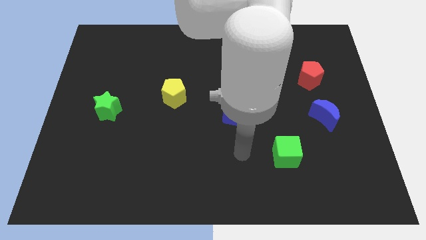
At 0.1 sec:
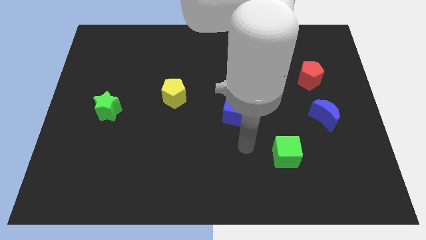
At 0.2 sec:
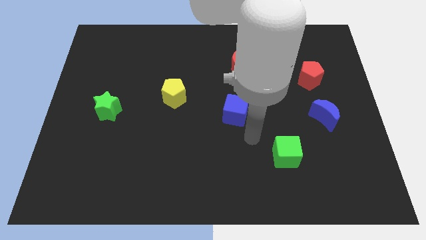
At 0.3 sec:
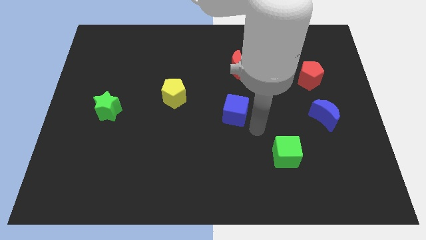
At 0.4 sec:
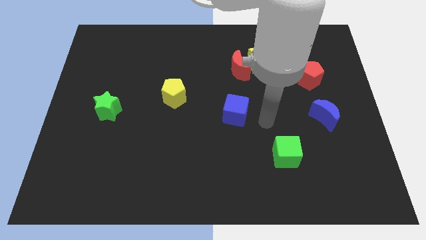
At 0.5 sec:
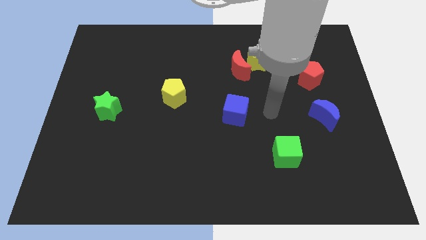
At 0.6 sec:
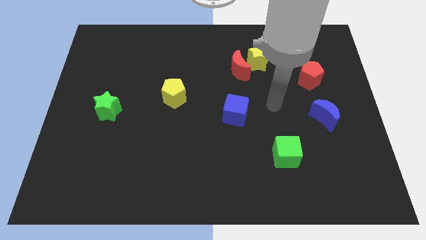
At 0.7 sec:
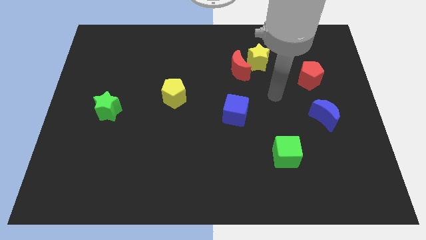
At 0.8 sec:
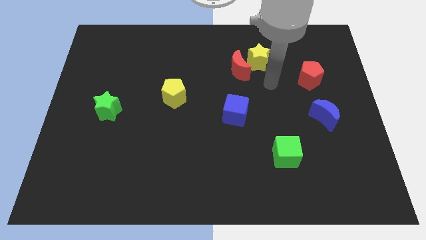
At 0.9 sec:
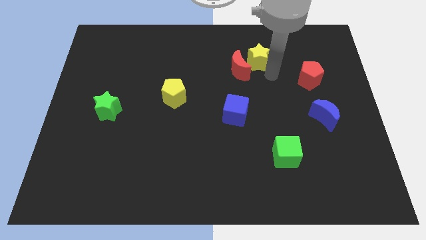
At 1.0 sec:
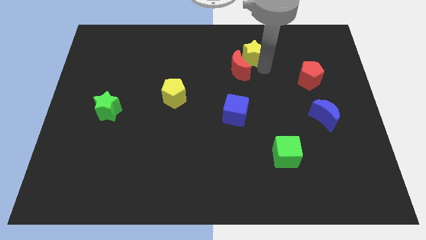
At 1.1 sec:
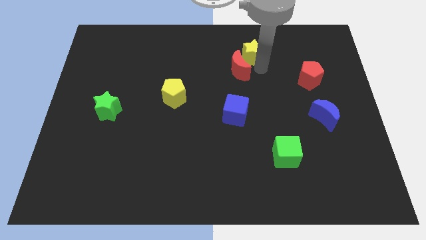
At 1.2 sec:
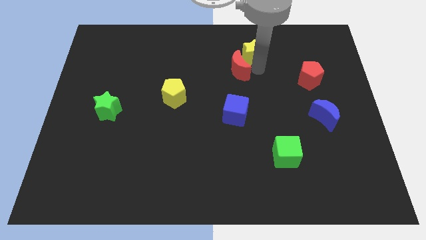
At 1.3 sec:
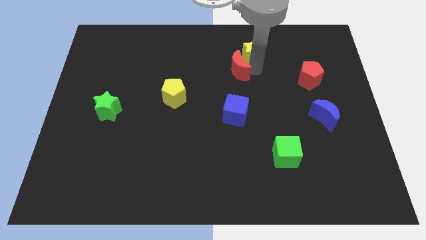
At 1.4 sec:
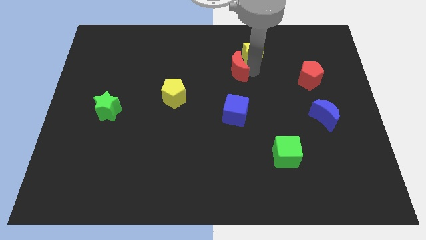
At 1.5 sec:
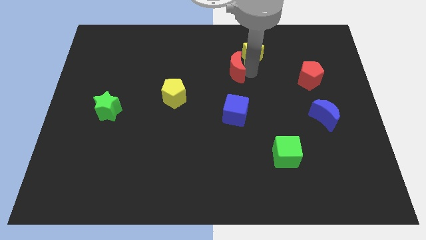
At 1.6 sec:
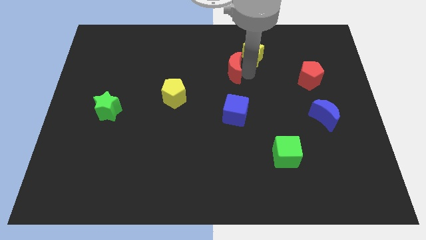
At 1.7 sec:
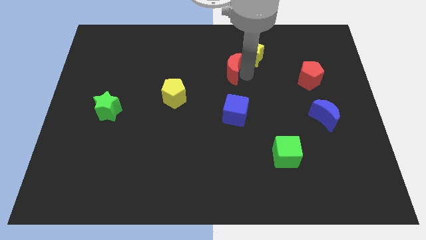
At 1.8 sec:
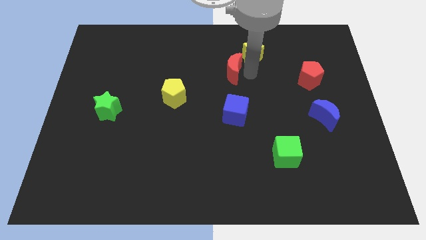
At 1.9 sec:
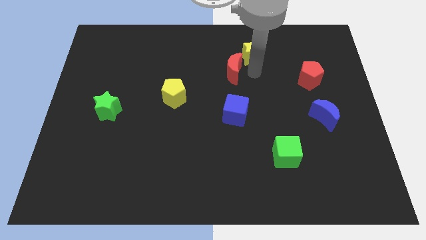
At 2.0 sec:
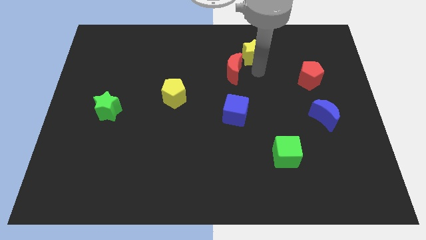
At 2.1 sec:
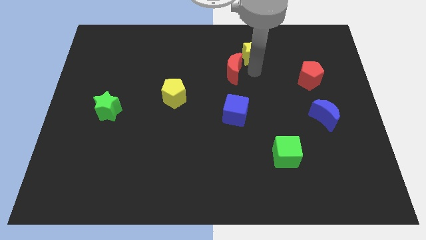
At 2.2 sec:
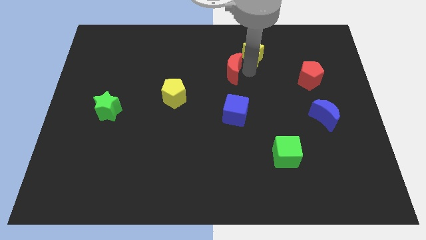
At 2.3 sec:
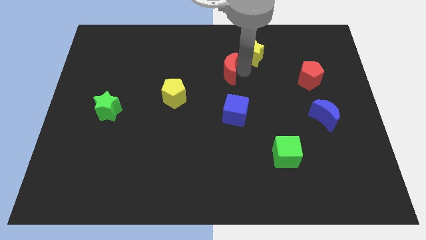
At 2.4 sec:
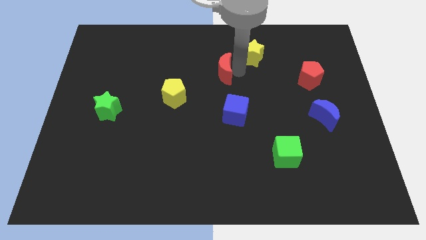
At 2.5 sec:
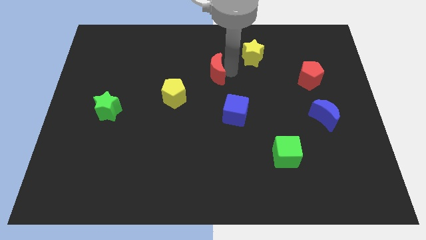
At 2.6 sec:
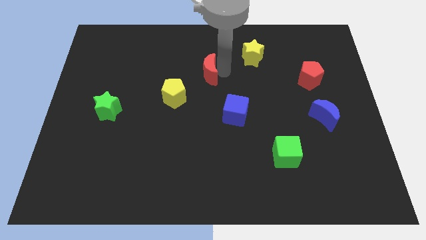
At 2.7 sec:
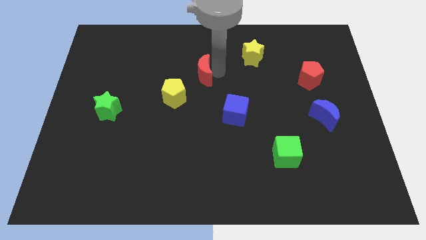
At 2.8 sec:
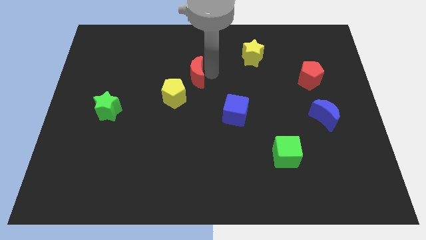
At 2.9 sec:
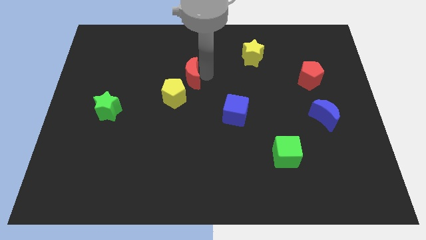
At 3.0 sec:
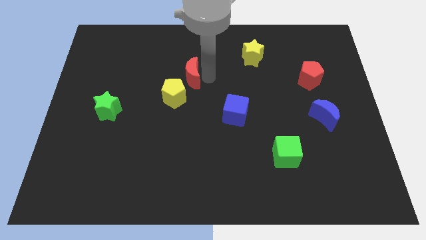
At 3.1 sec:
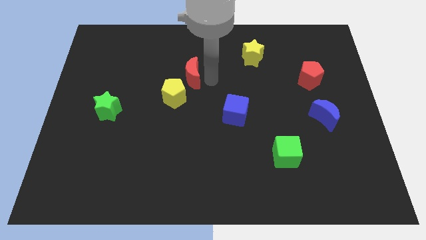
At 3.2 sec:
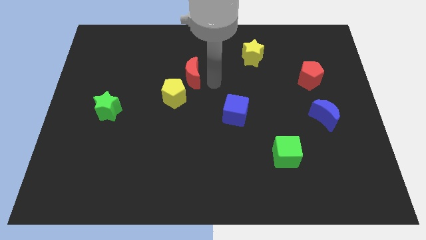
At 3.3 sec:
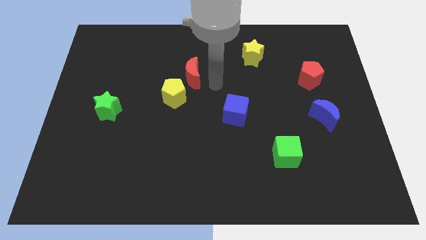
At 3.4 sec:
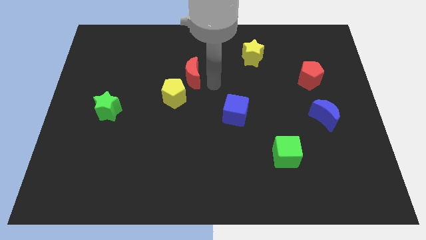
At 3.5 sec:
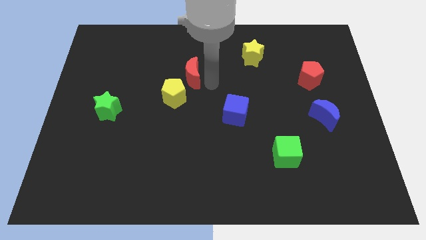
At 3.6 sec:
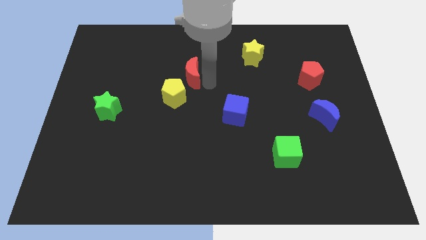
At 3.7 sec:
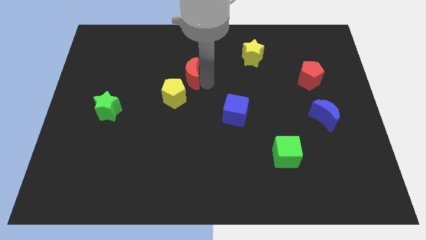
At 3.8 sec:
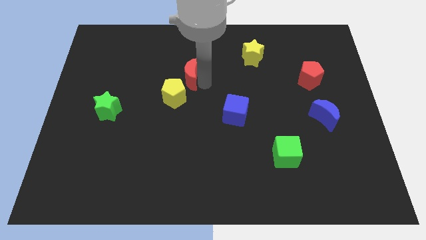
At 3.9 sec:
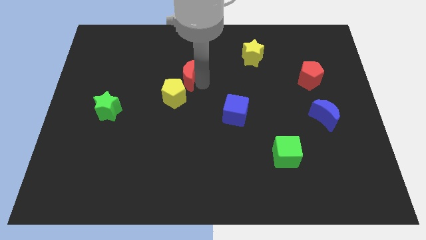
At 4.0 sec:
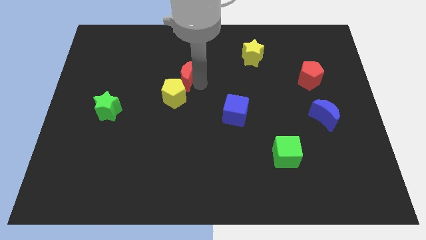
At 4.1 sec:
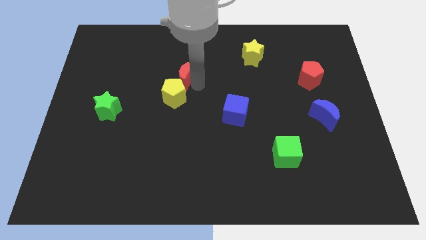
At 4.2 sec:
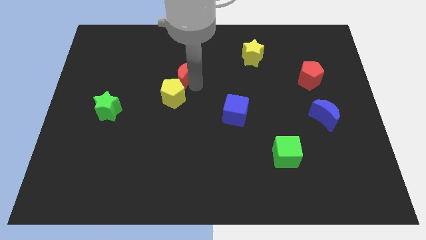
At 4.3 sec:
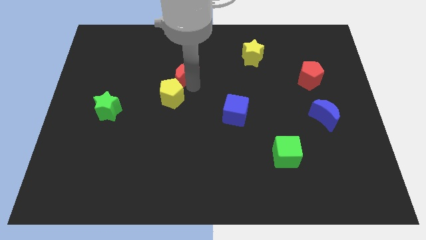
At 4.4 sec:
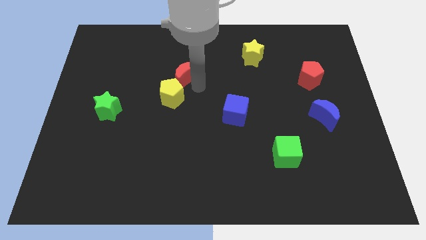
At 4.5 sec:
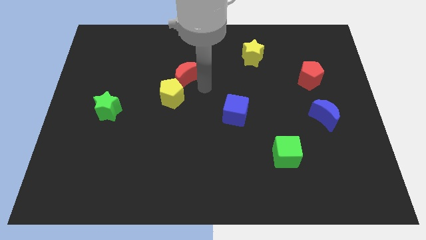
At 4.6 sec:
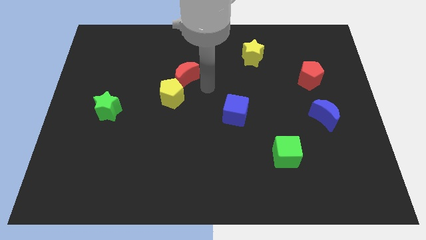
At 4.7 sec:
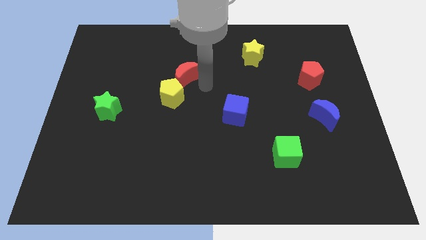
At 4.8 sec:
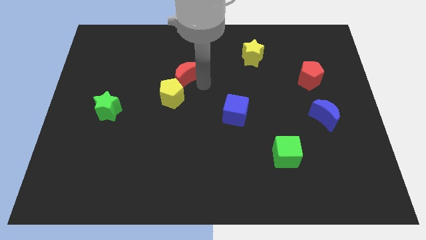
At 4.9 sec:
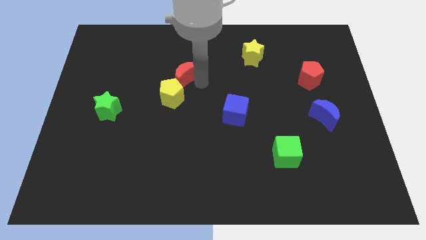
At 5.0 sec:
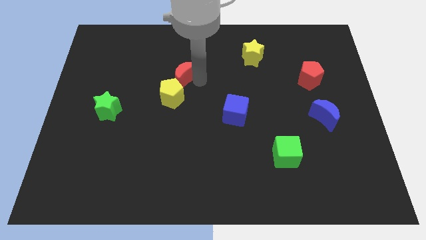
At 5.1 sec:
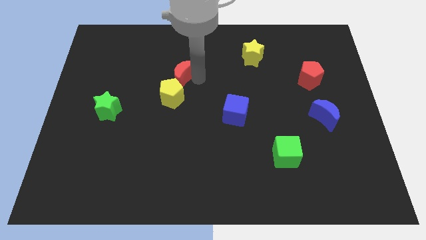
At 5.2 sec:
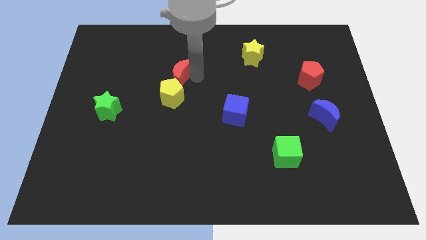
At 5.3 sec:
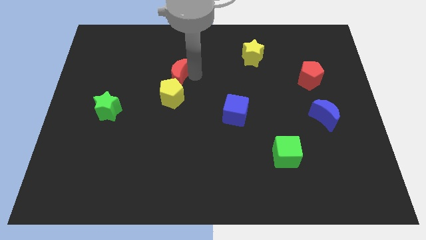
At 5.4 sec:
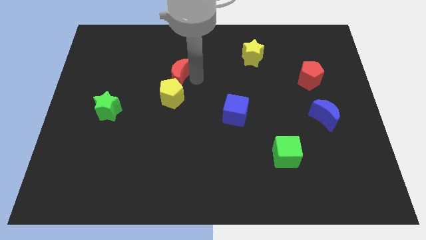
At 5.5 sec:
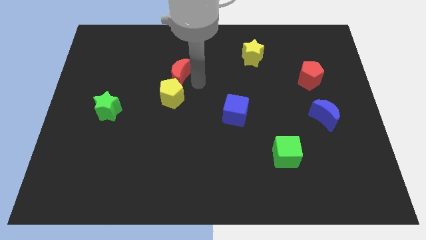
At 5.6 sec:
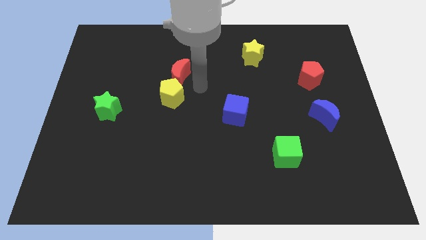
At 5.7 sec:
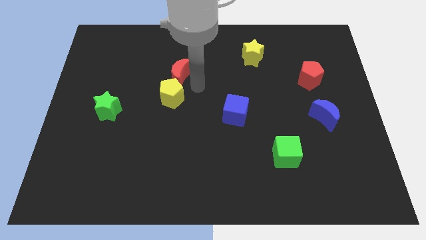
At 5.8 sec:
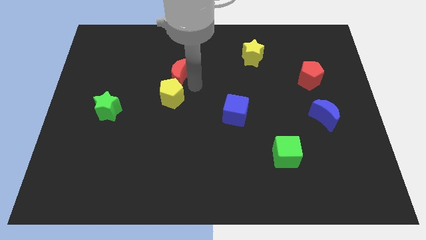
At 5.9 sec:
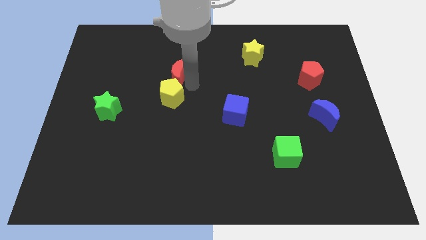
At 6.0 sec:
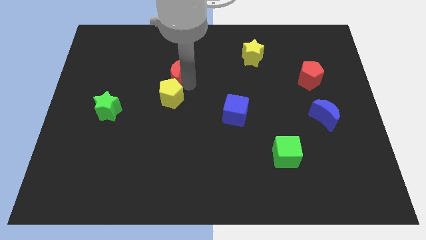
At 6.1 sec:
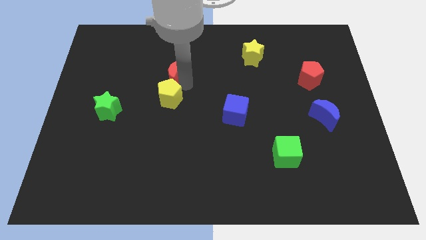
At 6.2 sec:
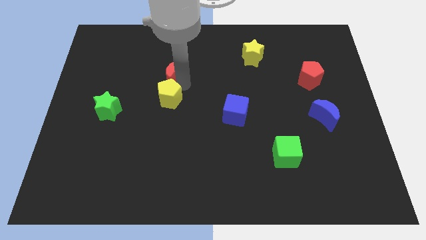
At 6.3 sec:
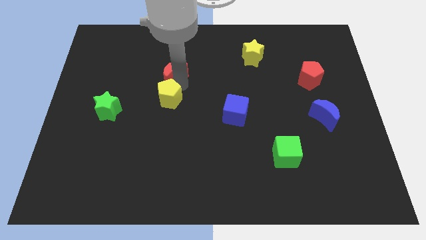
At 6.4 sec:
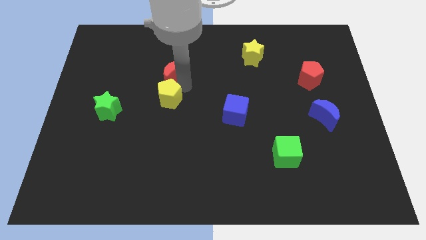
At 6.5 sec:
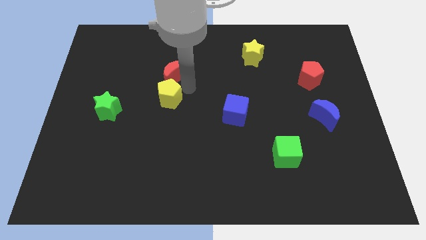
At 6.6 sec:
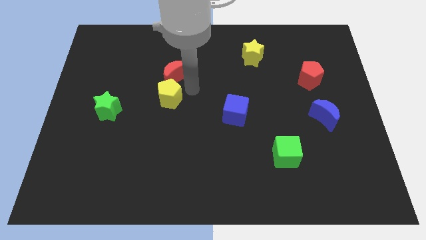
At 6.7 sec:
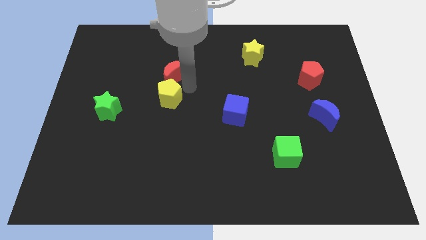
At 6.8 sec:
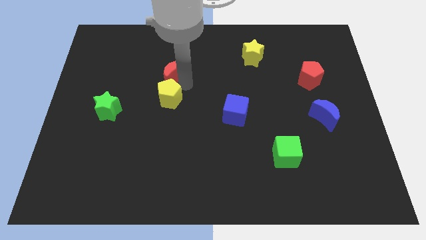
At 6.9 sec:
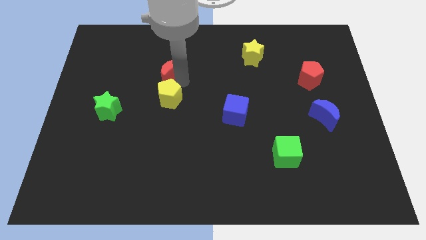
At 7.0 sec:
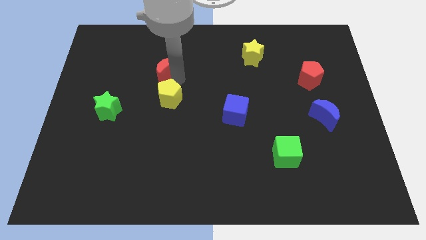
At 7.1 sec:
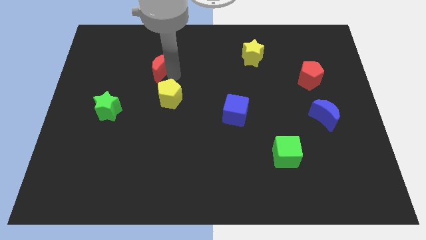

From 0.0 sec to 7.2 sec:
slide the red moon left

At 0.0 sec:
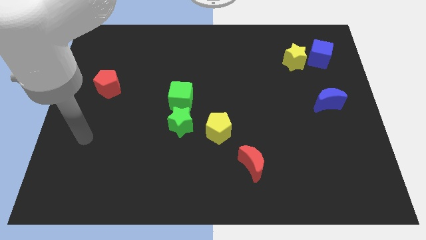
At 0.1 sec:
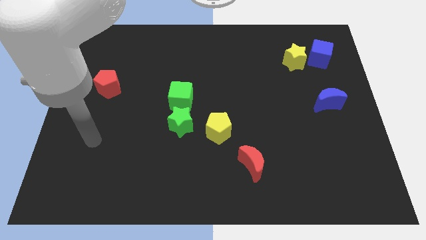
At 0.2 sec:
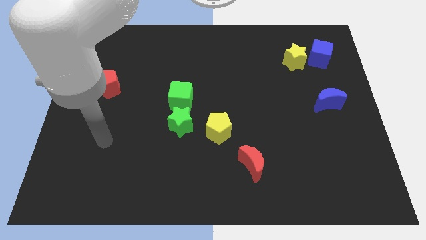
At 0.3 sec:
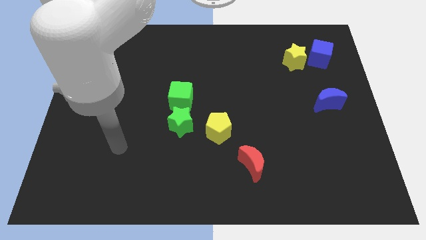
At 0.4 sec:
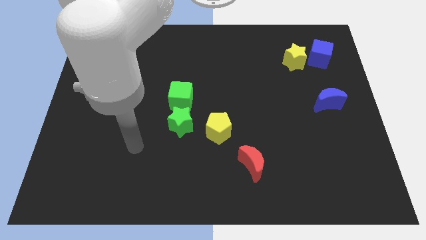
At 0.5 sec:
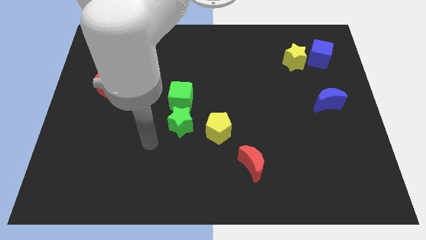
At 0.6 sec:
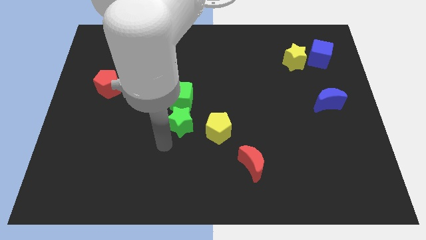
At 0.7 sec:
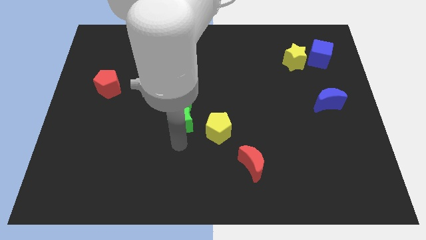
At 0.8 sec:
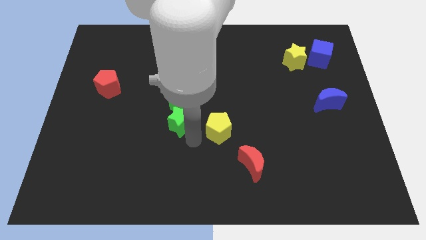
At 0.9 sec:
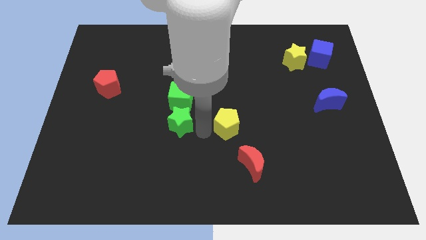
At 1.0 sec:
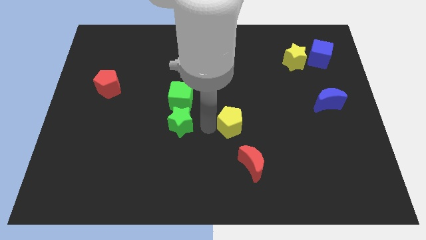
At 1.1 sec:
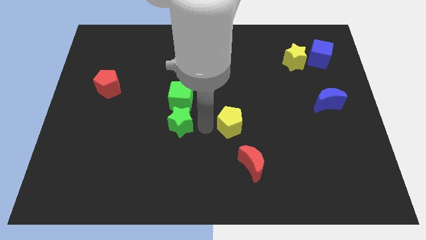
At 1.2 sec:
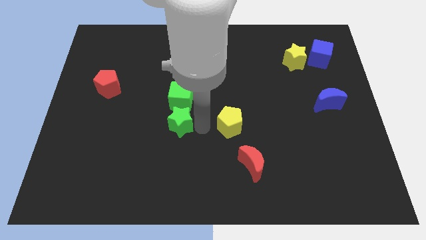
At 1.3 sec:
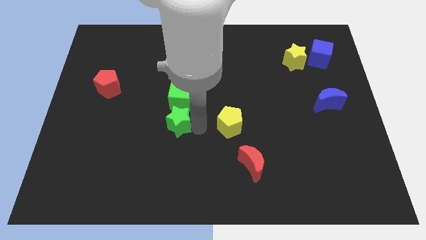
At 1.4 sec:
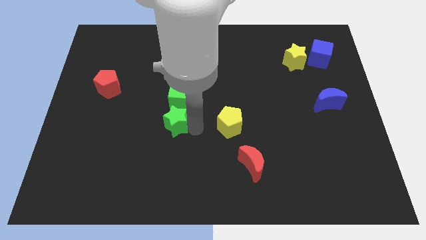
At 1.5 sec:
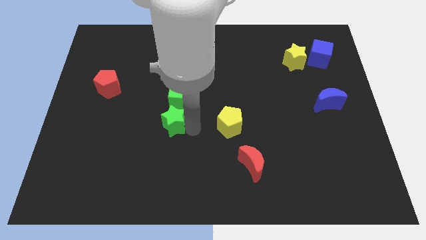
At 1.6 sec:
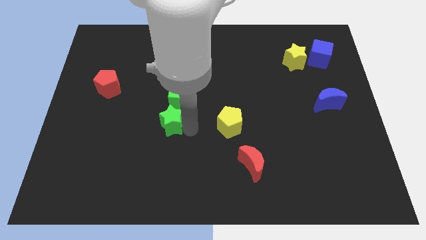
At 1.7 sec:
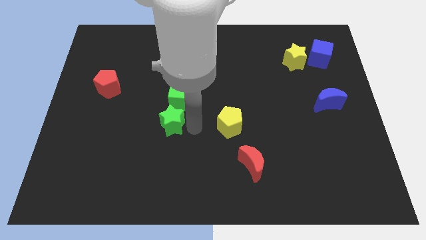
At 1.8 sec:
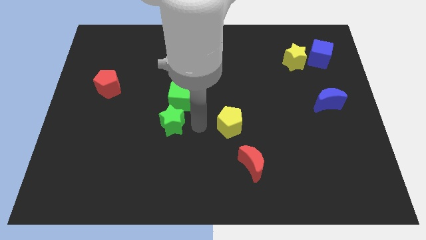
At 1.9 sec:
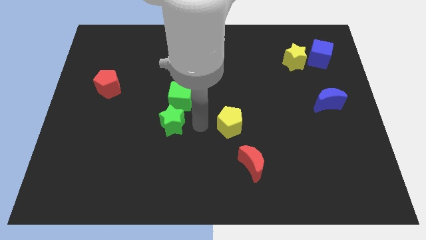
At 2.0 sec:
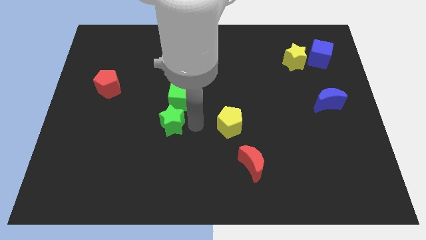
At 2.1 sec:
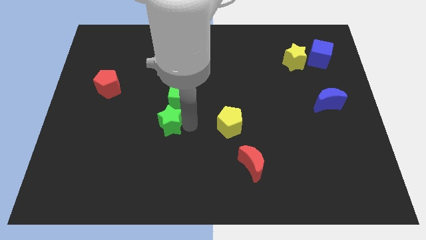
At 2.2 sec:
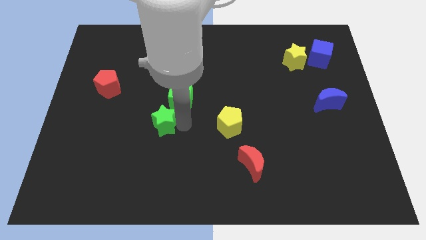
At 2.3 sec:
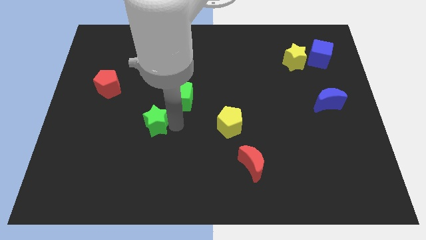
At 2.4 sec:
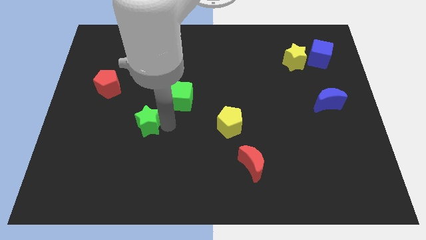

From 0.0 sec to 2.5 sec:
move the green star slightly to the left
